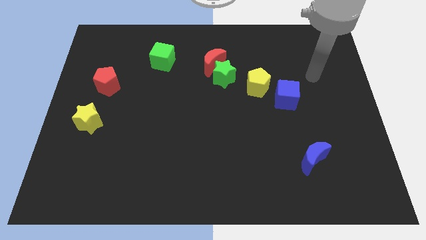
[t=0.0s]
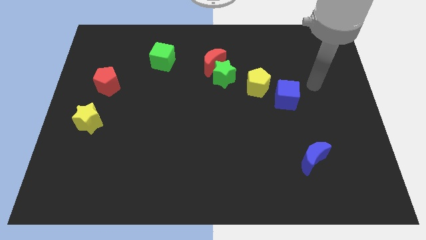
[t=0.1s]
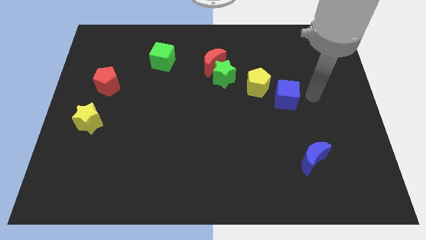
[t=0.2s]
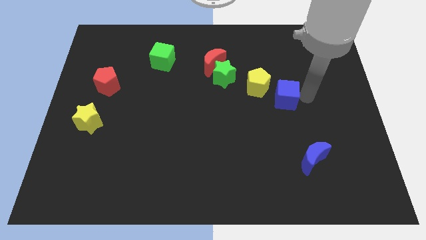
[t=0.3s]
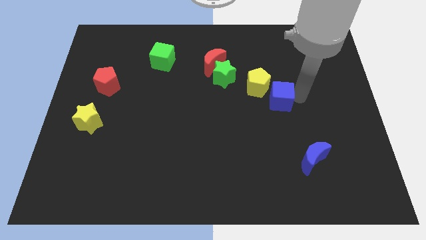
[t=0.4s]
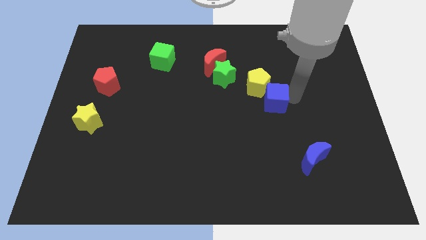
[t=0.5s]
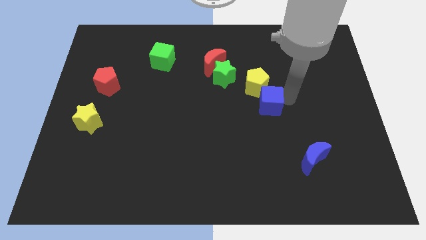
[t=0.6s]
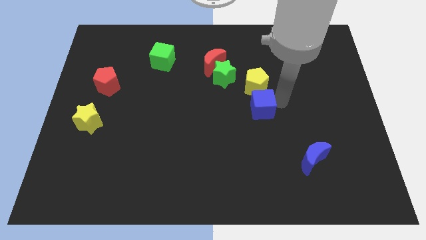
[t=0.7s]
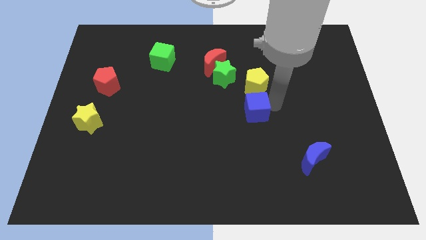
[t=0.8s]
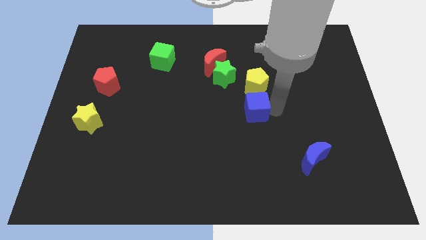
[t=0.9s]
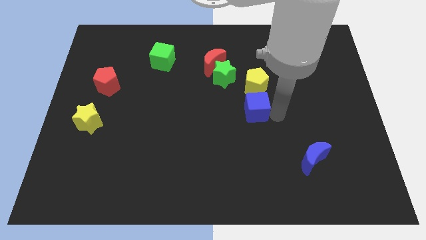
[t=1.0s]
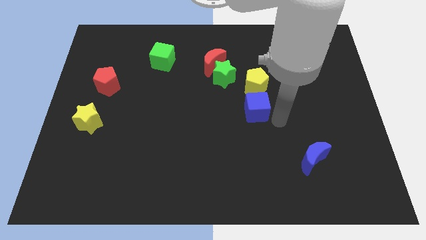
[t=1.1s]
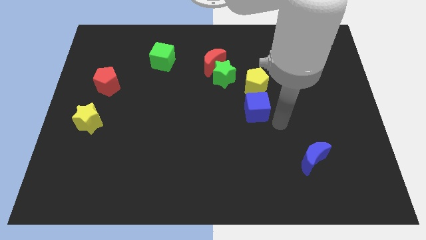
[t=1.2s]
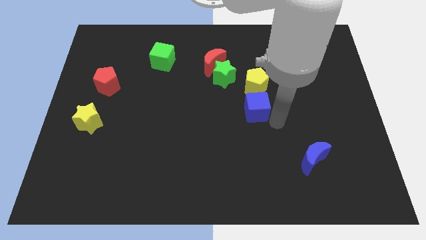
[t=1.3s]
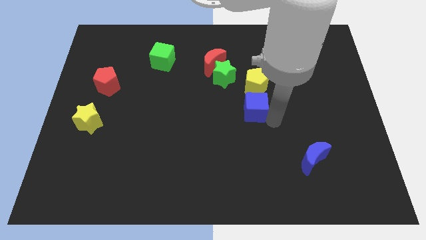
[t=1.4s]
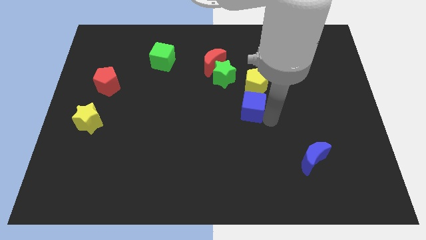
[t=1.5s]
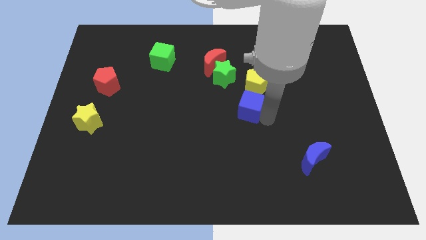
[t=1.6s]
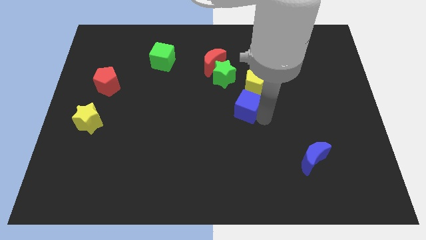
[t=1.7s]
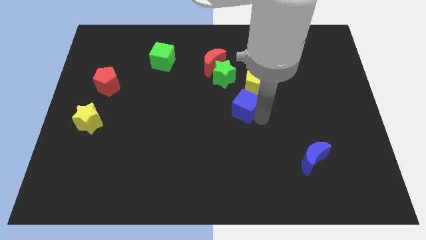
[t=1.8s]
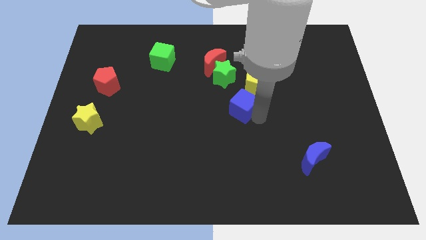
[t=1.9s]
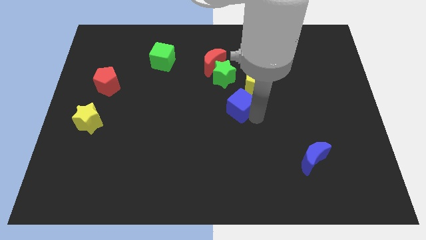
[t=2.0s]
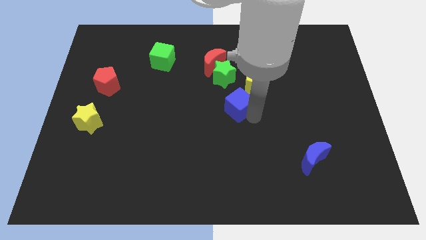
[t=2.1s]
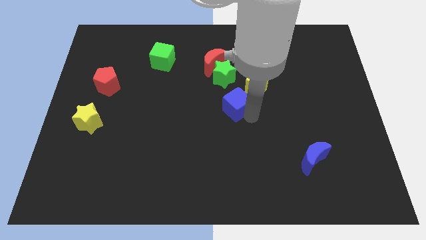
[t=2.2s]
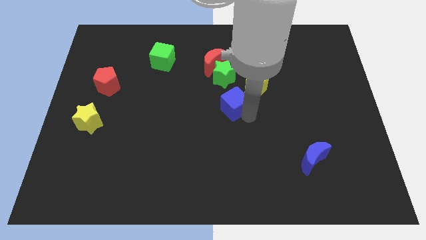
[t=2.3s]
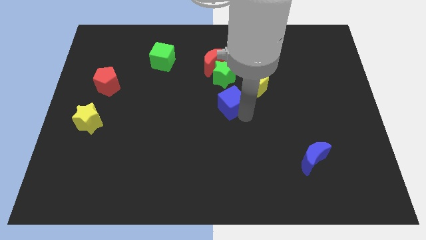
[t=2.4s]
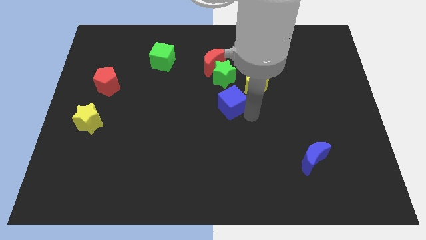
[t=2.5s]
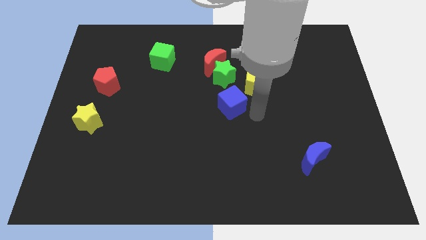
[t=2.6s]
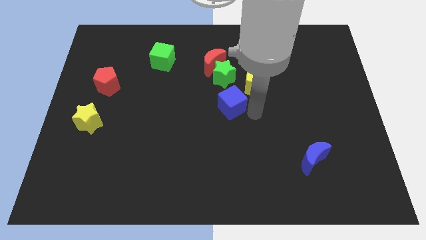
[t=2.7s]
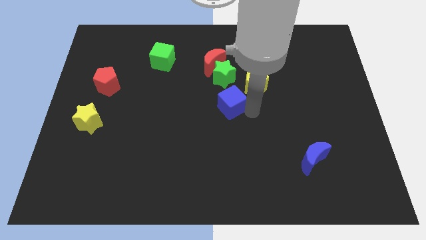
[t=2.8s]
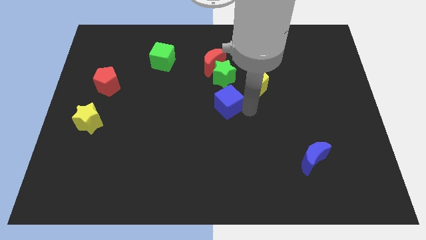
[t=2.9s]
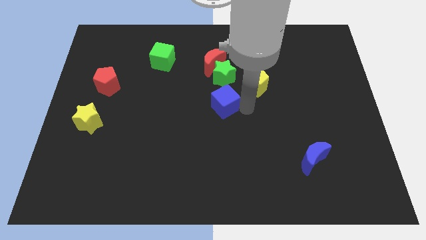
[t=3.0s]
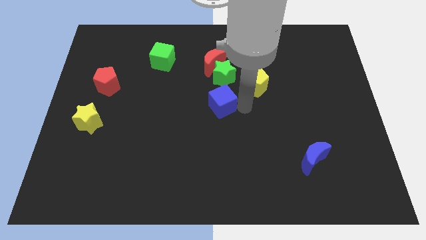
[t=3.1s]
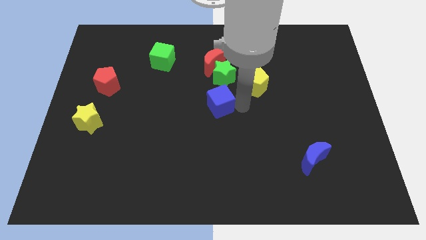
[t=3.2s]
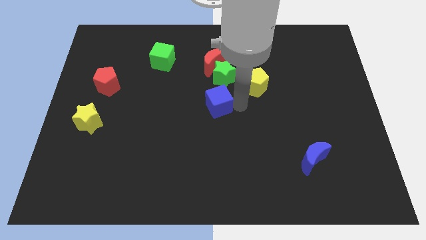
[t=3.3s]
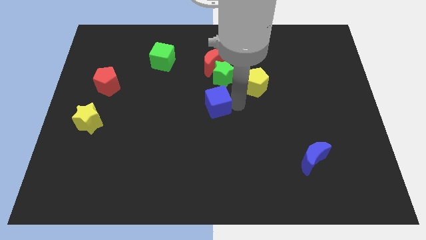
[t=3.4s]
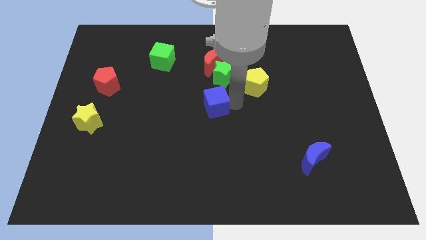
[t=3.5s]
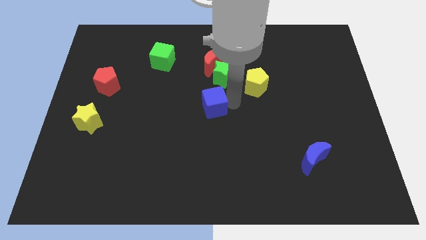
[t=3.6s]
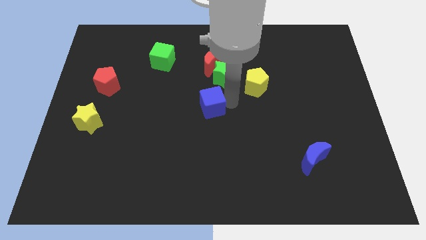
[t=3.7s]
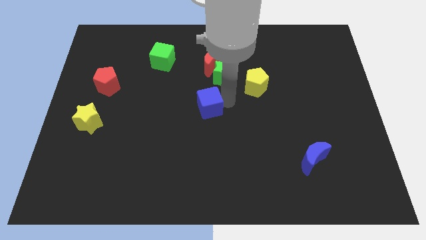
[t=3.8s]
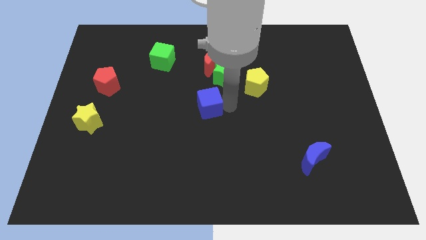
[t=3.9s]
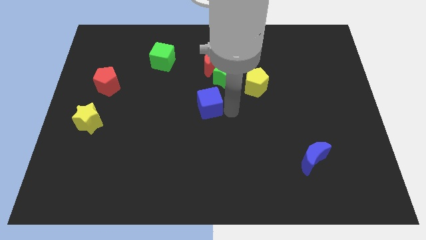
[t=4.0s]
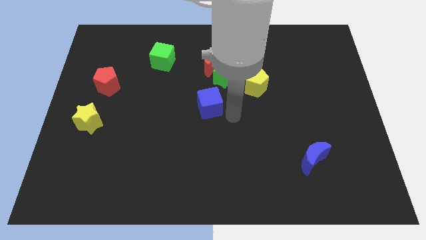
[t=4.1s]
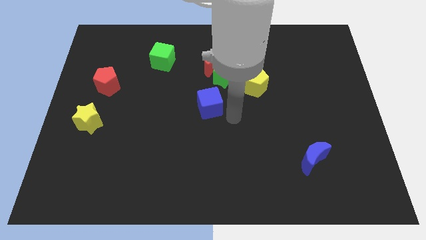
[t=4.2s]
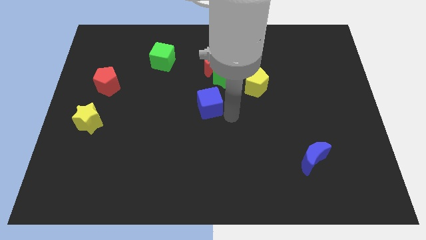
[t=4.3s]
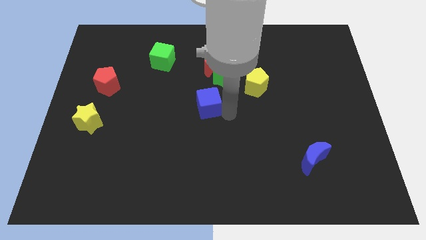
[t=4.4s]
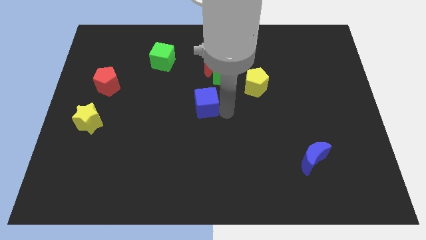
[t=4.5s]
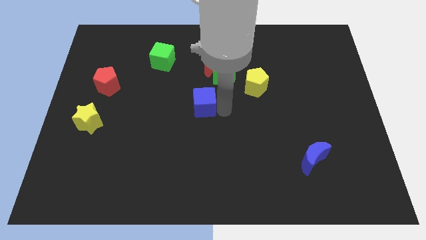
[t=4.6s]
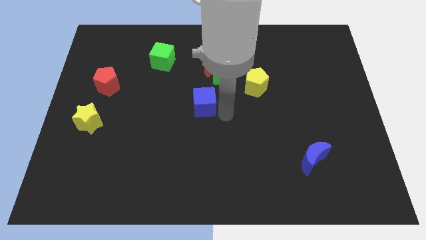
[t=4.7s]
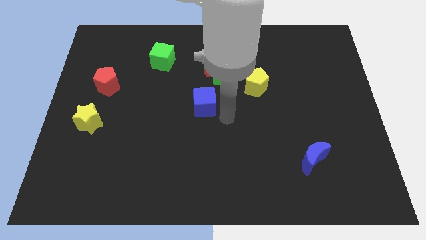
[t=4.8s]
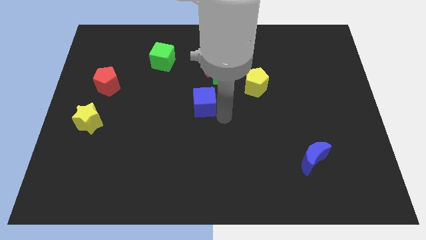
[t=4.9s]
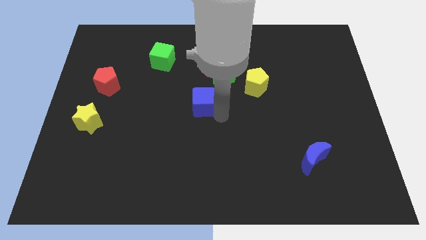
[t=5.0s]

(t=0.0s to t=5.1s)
slide the blue cube left

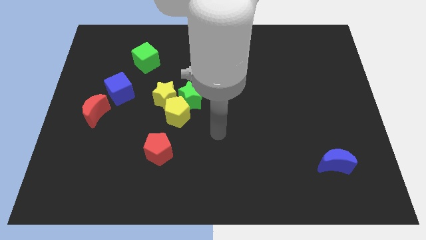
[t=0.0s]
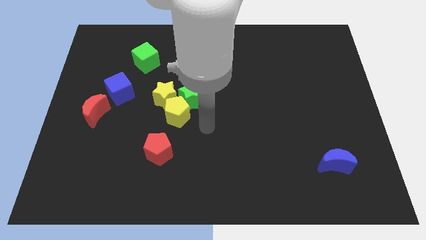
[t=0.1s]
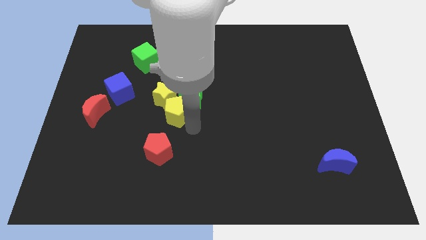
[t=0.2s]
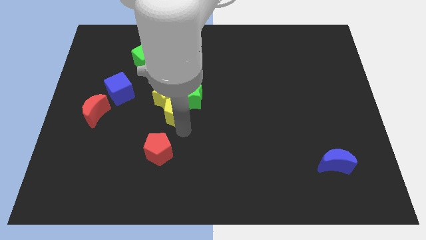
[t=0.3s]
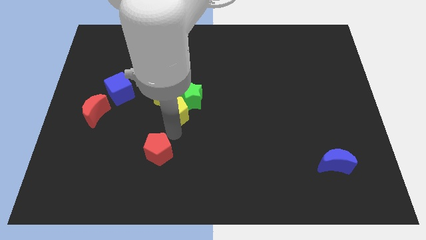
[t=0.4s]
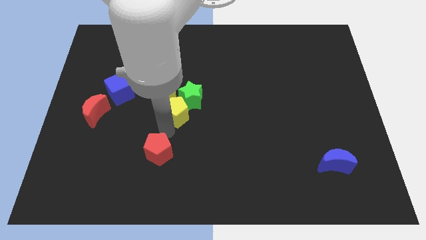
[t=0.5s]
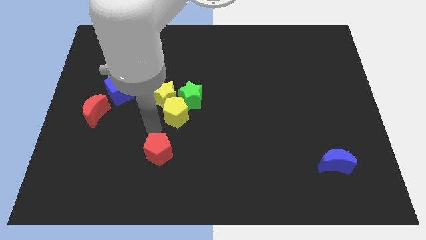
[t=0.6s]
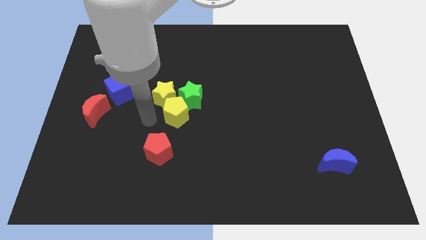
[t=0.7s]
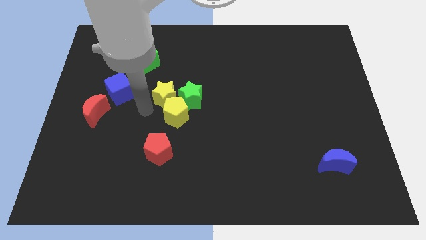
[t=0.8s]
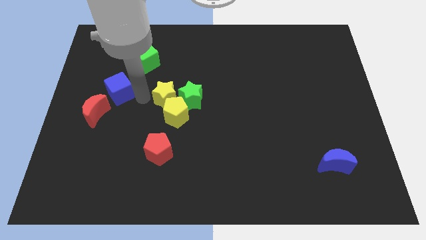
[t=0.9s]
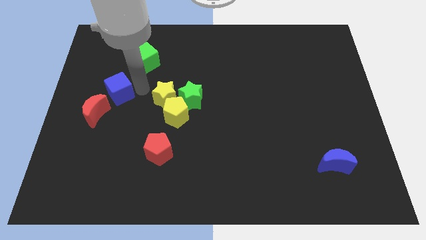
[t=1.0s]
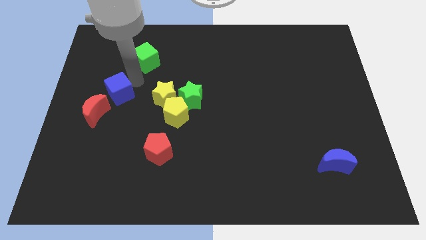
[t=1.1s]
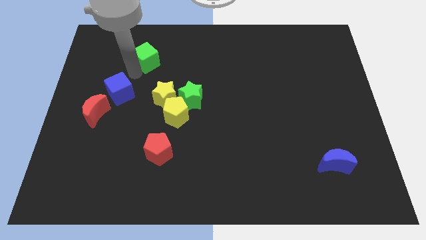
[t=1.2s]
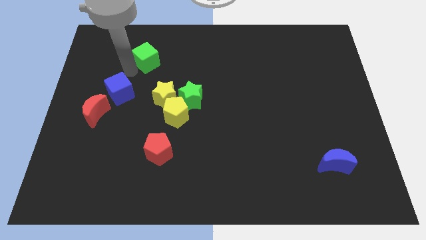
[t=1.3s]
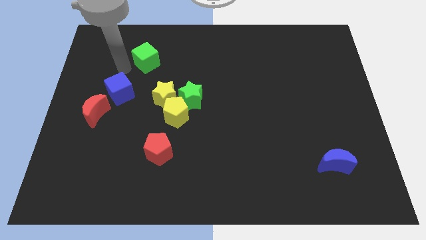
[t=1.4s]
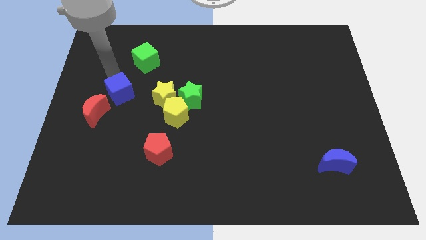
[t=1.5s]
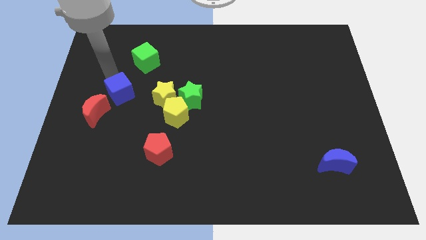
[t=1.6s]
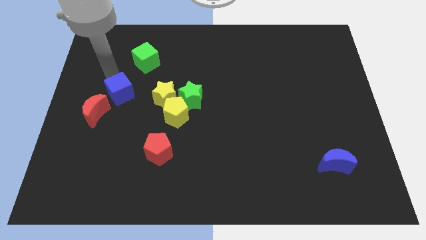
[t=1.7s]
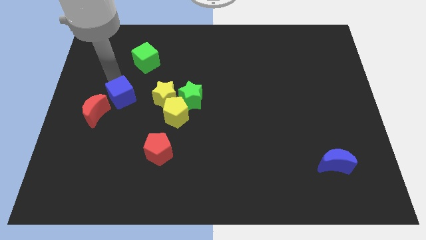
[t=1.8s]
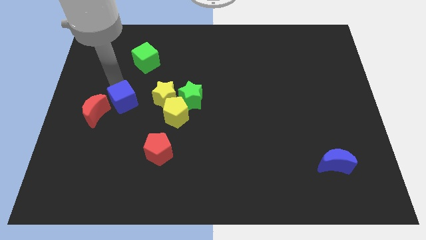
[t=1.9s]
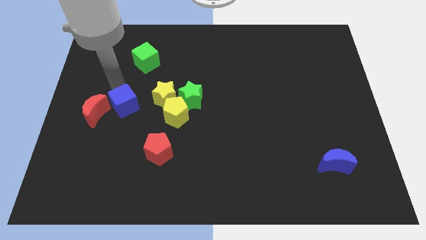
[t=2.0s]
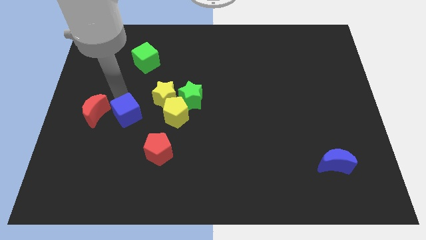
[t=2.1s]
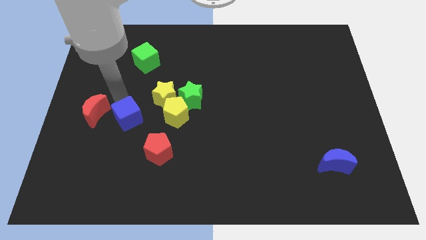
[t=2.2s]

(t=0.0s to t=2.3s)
slide the blue cube downwards and then to the right a bit

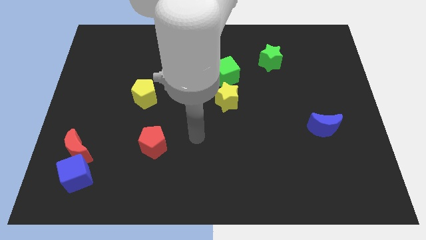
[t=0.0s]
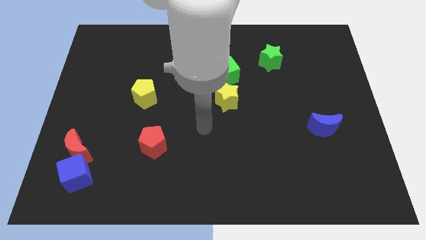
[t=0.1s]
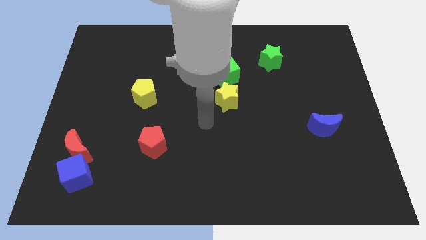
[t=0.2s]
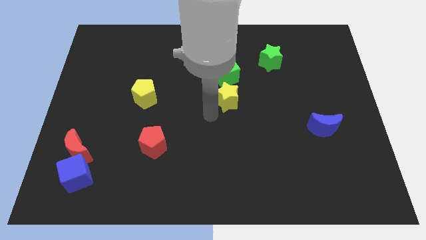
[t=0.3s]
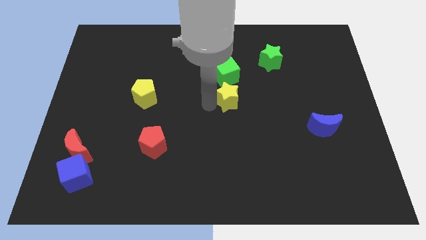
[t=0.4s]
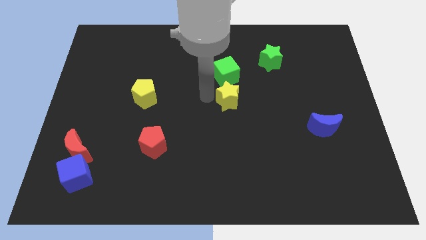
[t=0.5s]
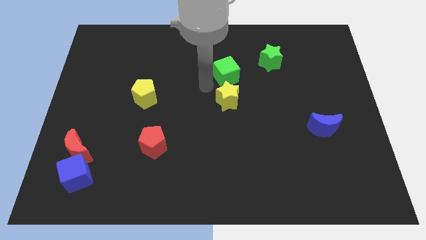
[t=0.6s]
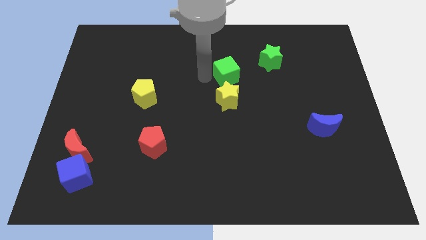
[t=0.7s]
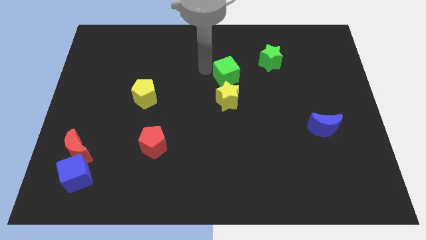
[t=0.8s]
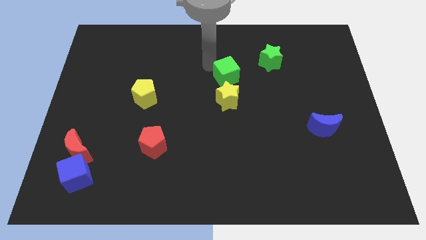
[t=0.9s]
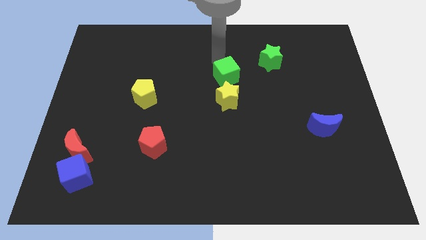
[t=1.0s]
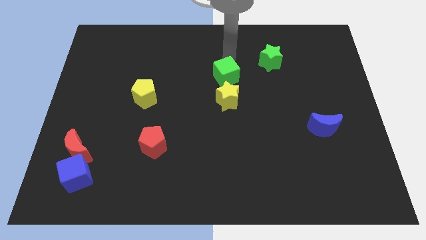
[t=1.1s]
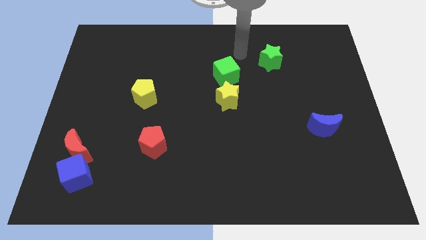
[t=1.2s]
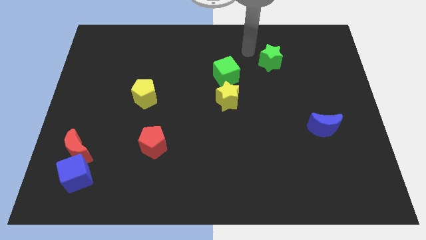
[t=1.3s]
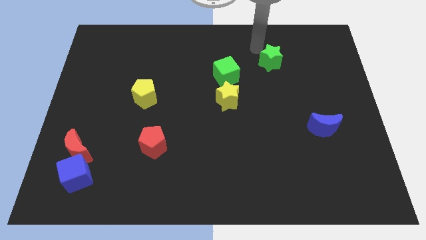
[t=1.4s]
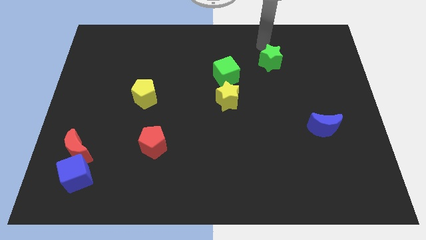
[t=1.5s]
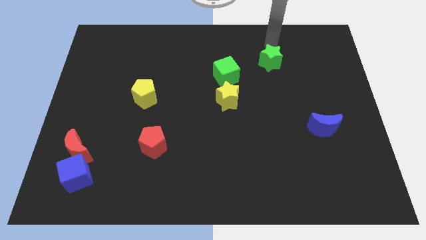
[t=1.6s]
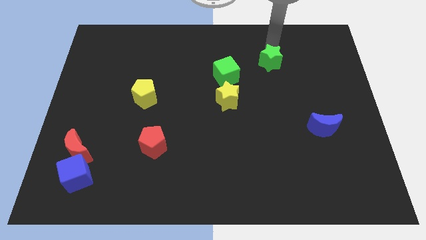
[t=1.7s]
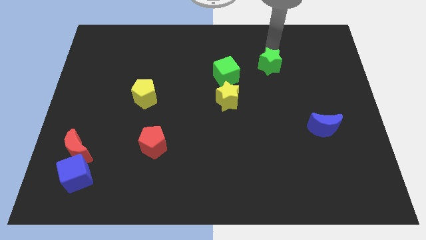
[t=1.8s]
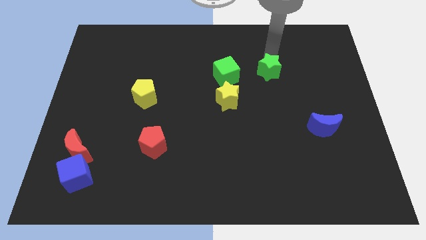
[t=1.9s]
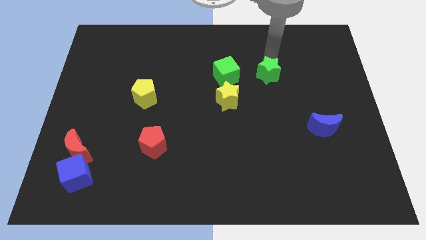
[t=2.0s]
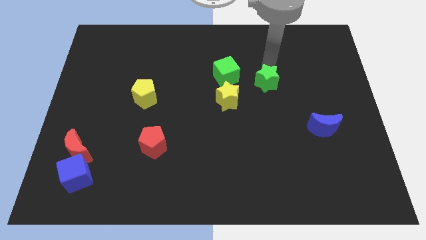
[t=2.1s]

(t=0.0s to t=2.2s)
push the green star somewhat downwards
